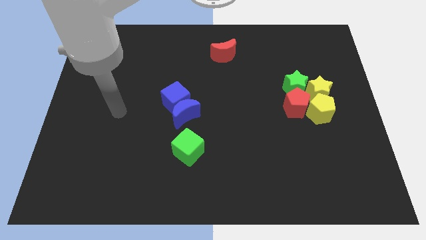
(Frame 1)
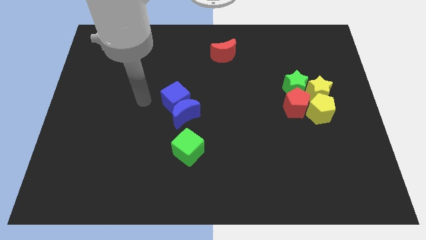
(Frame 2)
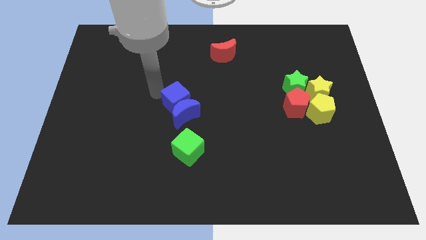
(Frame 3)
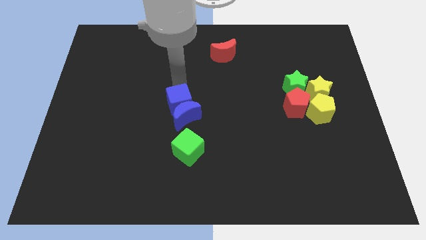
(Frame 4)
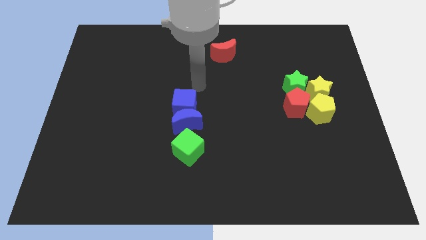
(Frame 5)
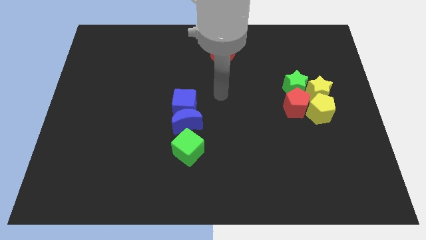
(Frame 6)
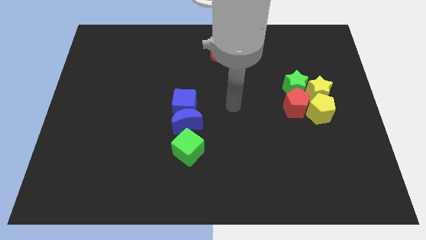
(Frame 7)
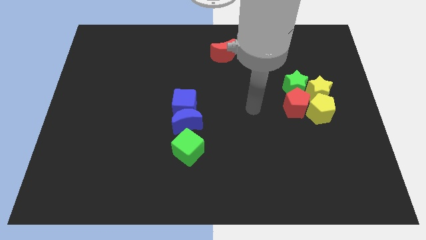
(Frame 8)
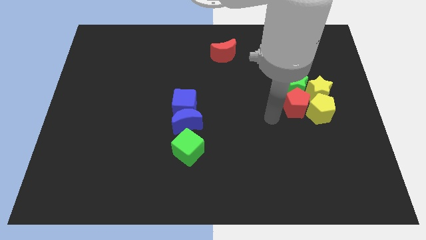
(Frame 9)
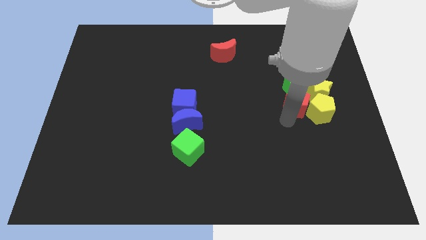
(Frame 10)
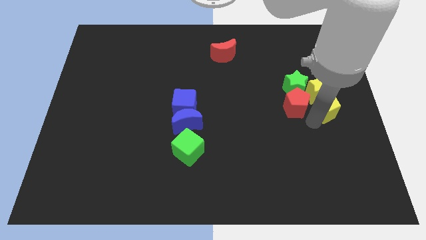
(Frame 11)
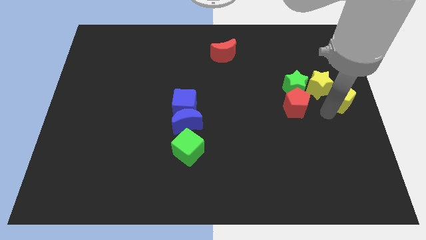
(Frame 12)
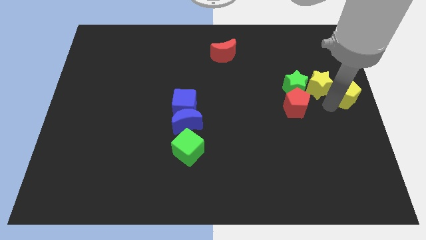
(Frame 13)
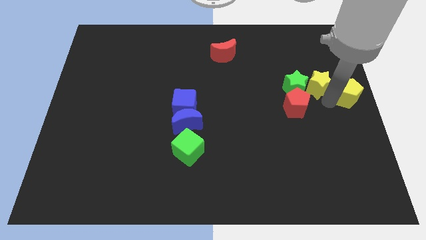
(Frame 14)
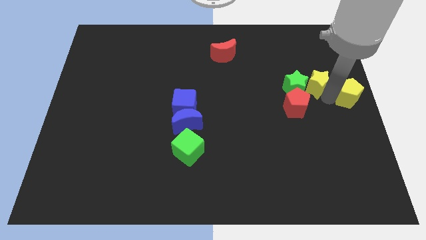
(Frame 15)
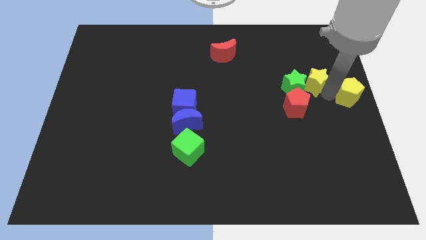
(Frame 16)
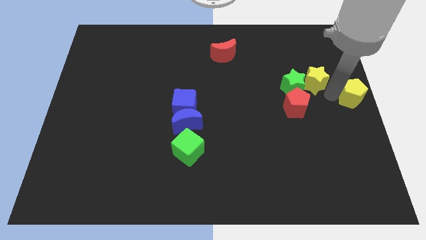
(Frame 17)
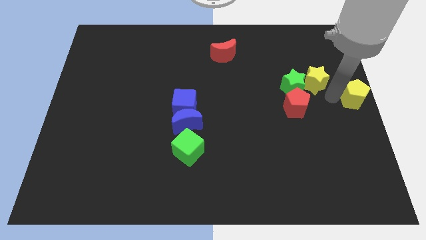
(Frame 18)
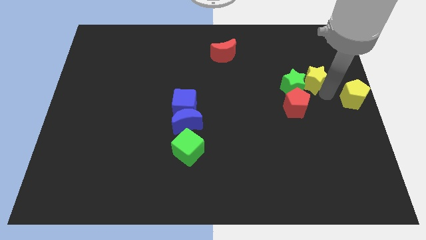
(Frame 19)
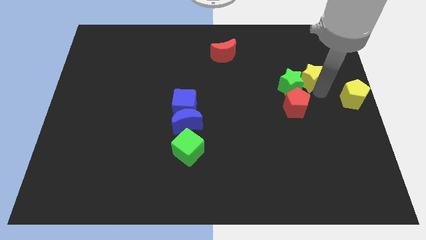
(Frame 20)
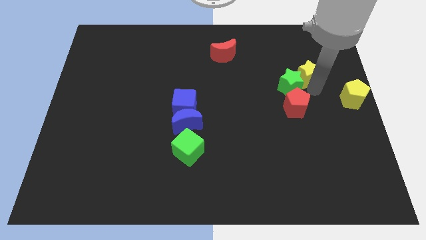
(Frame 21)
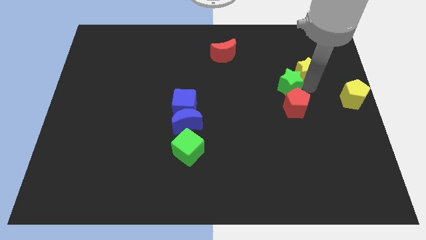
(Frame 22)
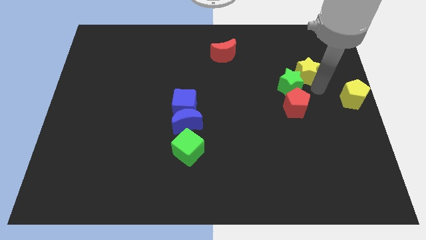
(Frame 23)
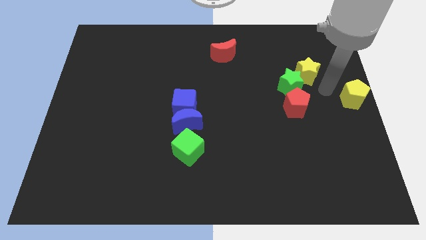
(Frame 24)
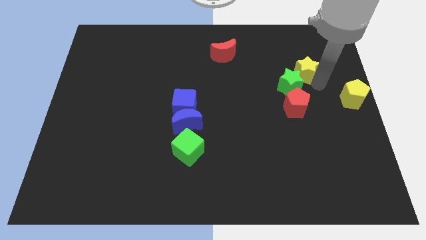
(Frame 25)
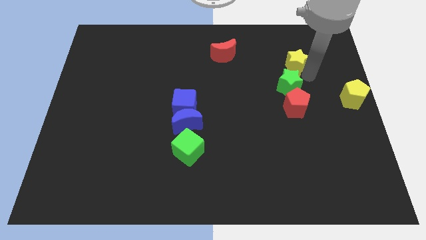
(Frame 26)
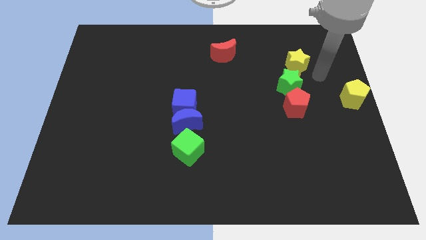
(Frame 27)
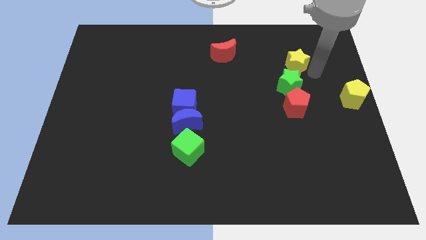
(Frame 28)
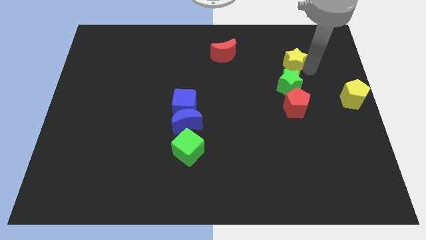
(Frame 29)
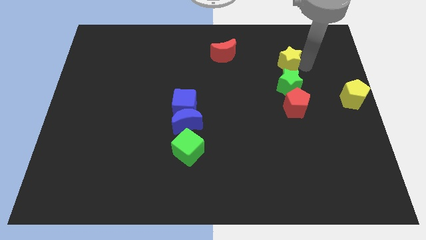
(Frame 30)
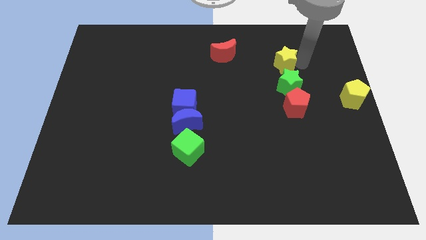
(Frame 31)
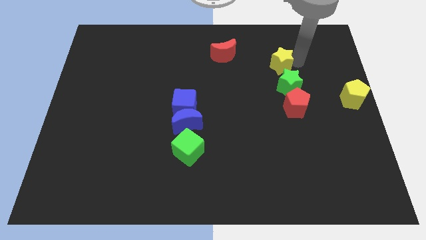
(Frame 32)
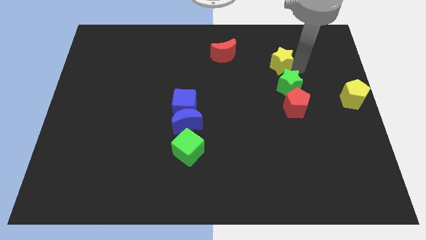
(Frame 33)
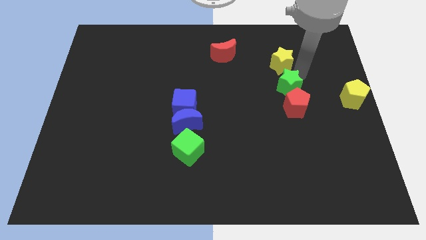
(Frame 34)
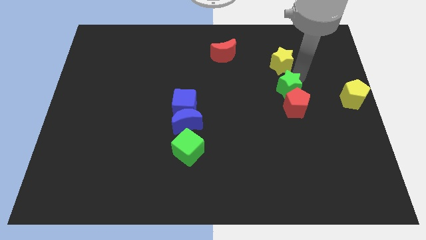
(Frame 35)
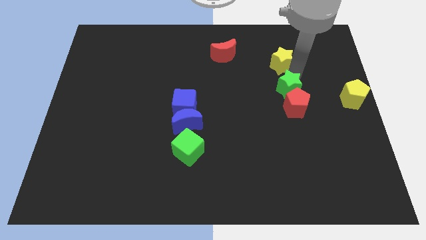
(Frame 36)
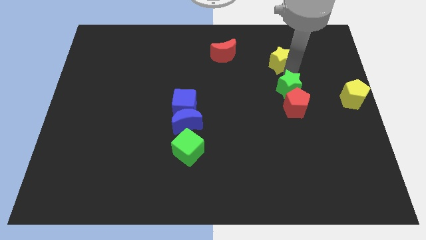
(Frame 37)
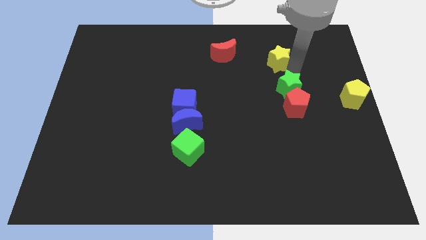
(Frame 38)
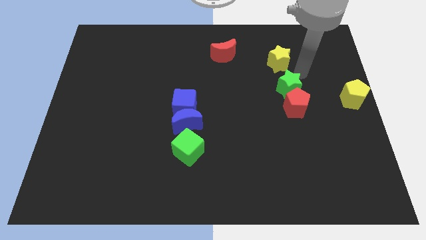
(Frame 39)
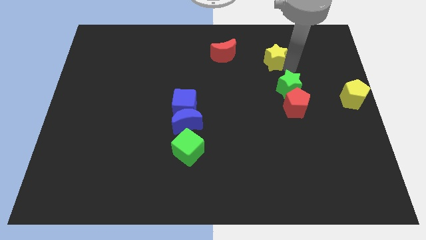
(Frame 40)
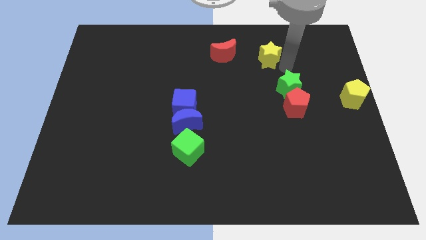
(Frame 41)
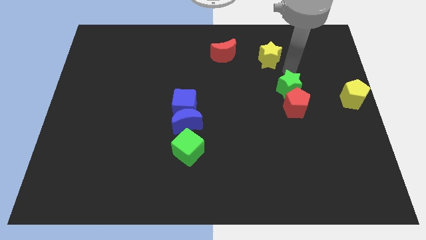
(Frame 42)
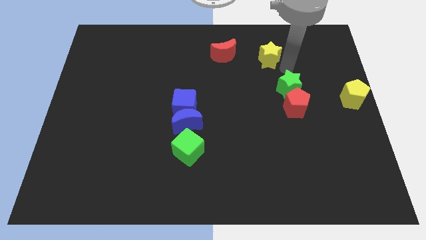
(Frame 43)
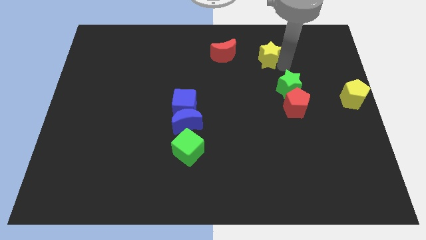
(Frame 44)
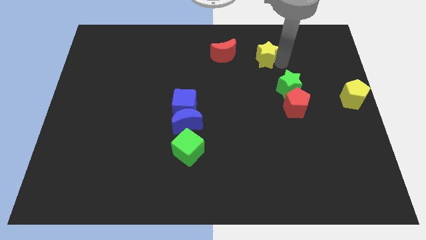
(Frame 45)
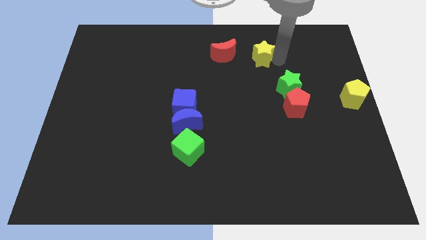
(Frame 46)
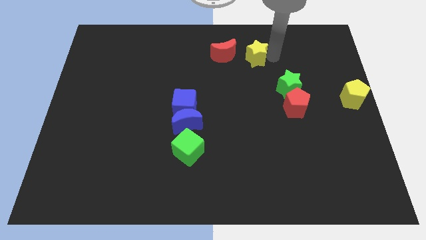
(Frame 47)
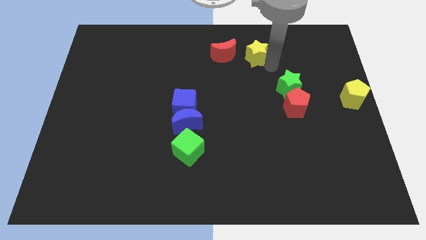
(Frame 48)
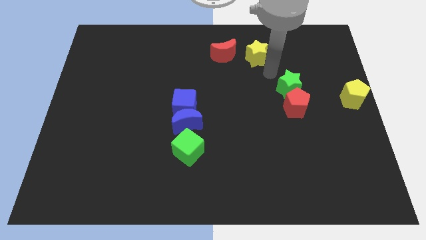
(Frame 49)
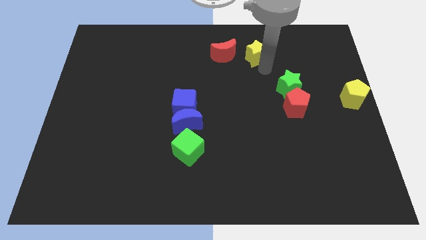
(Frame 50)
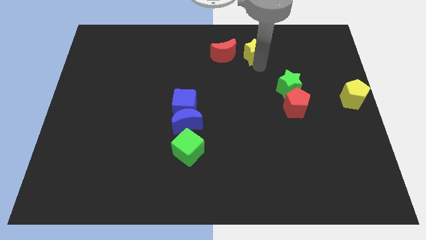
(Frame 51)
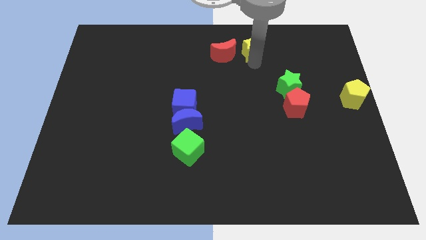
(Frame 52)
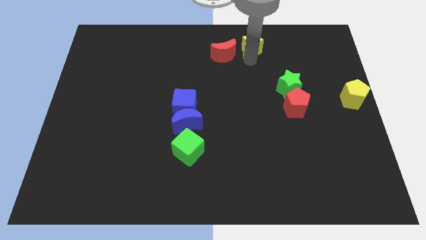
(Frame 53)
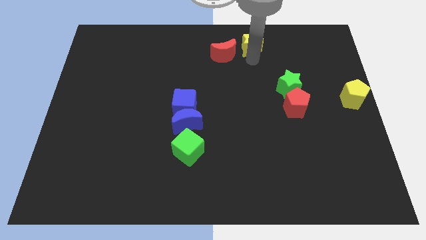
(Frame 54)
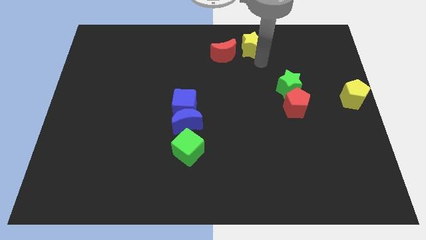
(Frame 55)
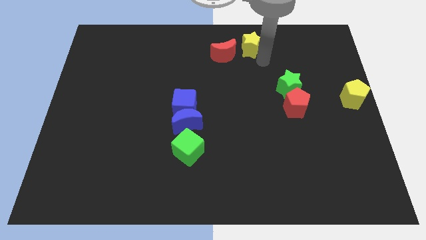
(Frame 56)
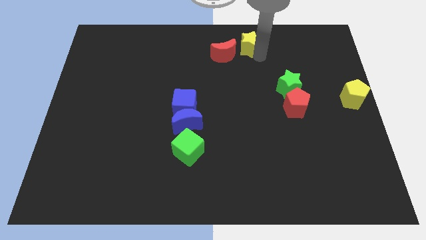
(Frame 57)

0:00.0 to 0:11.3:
move the yellow star to the towards your base

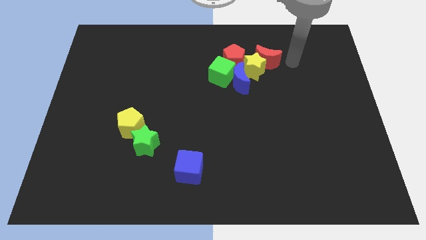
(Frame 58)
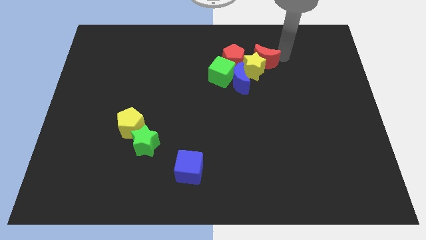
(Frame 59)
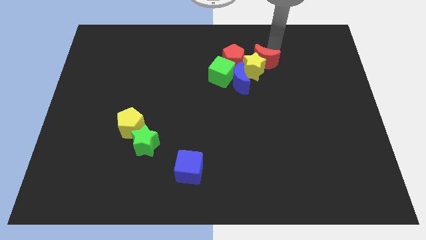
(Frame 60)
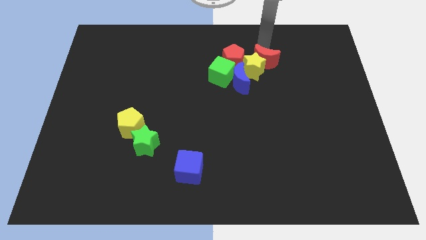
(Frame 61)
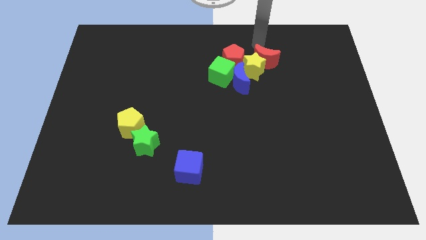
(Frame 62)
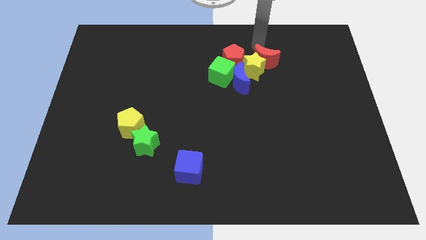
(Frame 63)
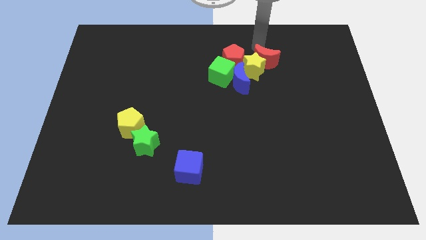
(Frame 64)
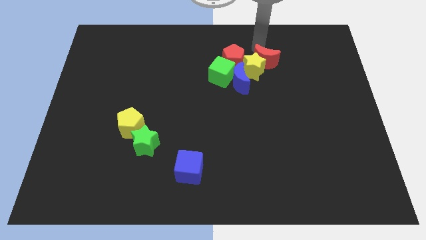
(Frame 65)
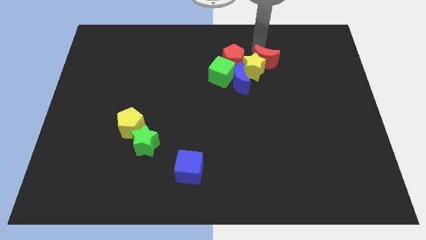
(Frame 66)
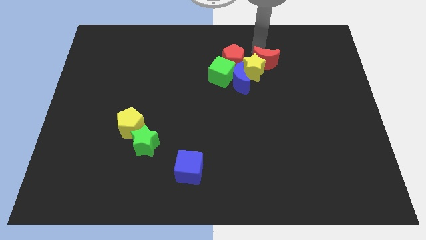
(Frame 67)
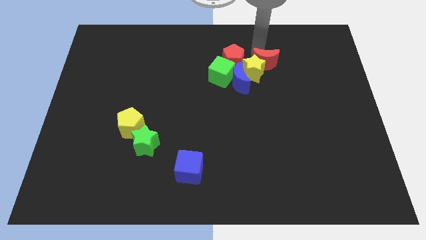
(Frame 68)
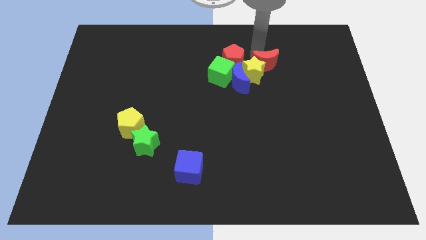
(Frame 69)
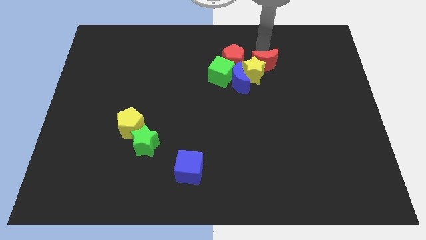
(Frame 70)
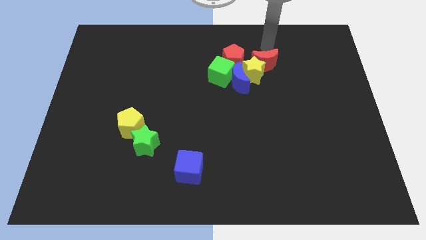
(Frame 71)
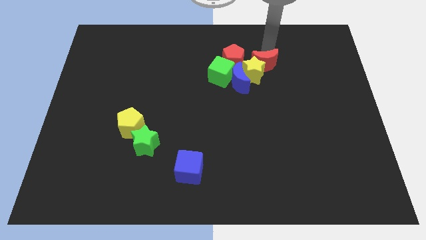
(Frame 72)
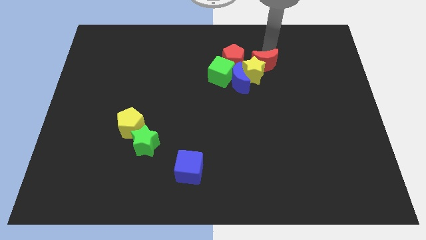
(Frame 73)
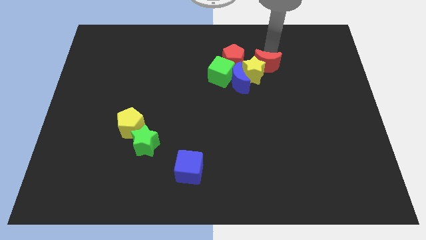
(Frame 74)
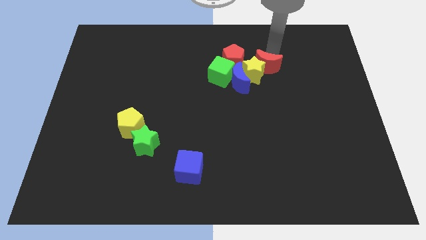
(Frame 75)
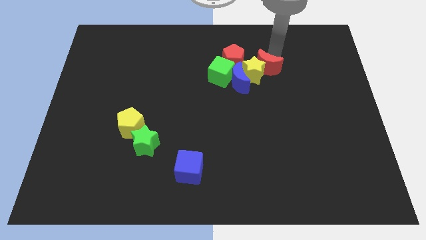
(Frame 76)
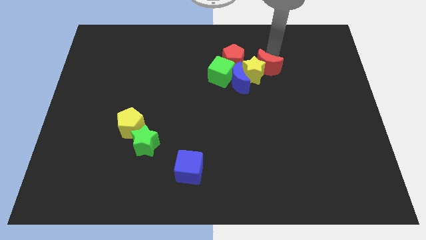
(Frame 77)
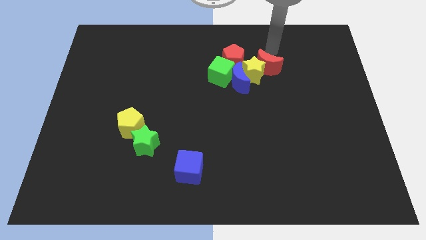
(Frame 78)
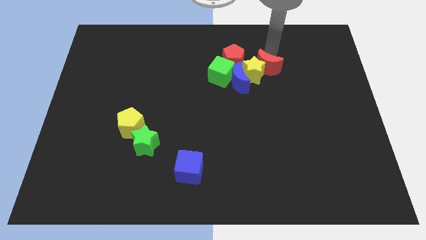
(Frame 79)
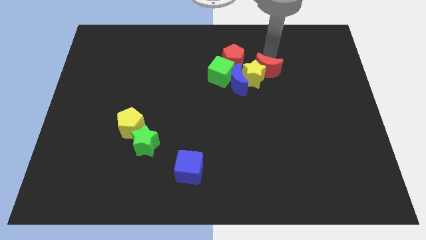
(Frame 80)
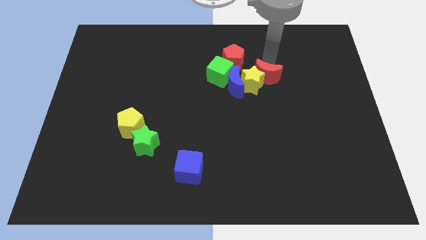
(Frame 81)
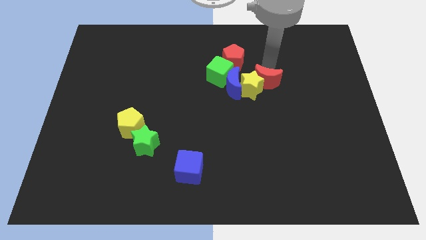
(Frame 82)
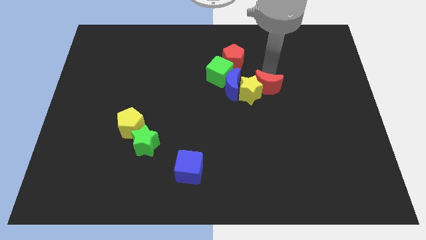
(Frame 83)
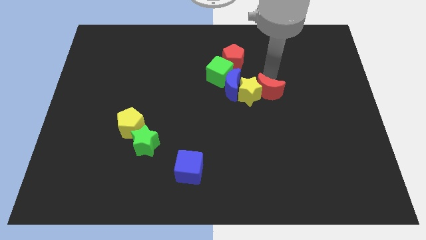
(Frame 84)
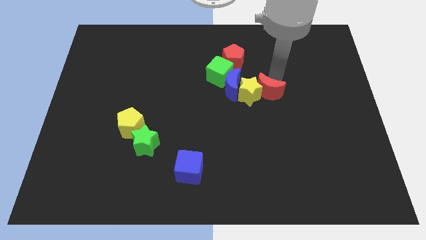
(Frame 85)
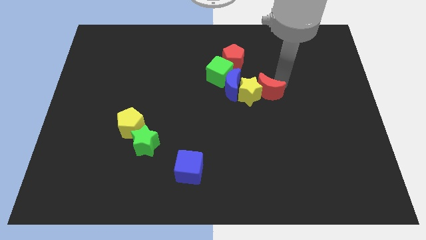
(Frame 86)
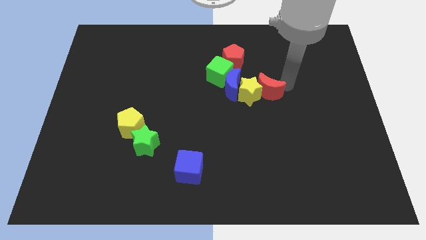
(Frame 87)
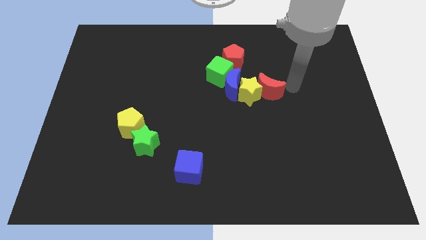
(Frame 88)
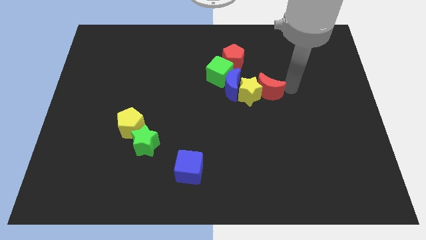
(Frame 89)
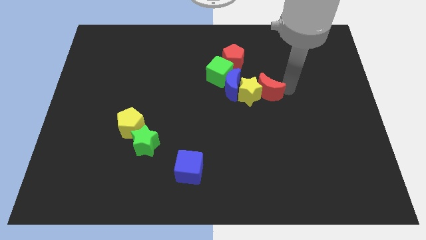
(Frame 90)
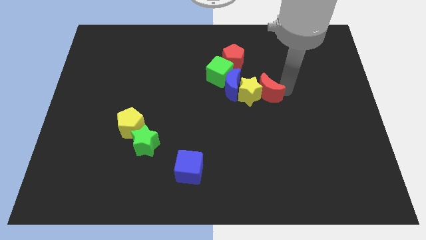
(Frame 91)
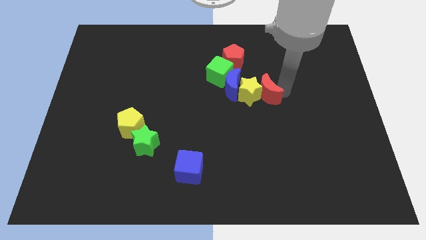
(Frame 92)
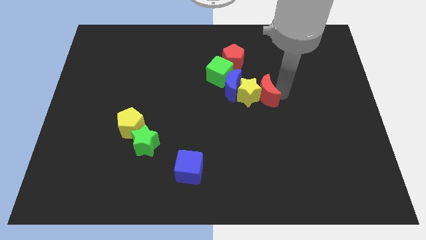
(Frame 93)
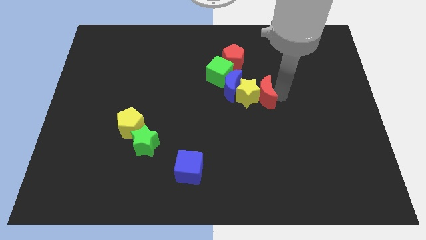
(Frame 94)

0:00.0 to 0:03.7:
push the red moon to the center
